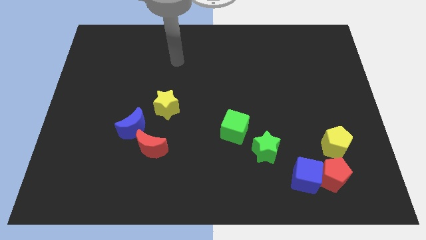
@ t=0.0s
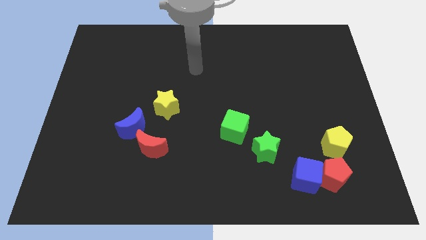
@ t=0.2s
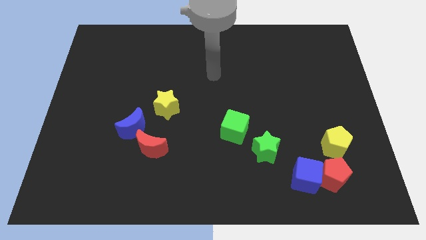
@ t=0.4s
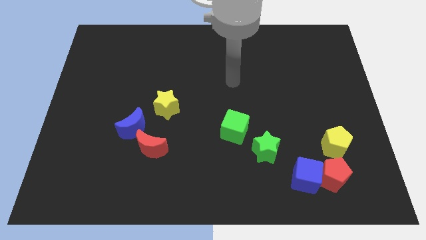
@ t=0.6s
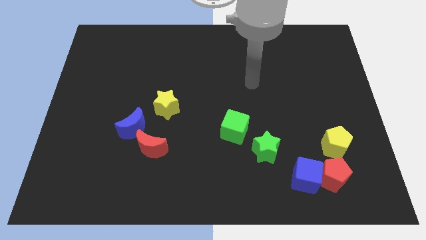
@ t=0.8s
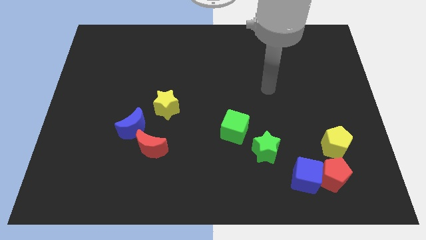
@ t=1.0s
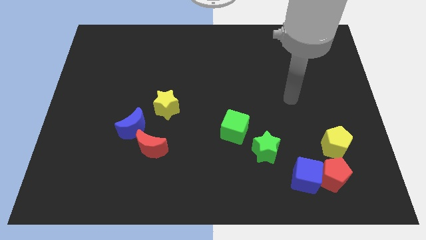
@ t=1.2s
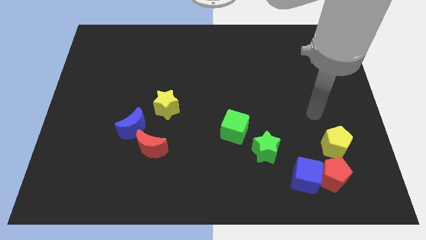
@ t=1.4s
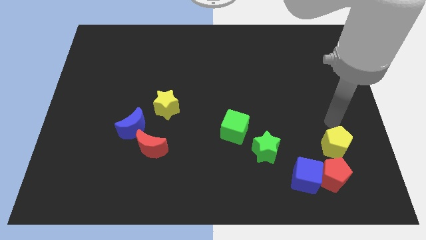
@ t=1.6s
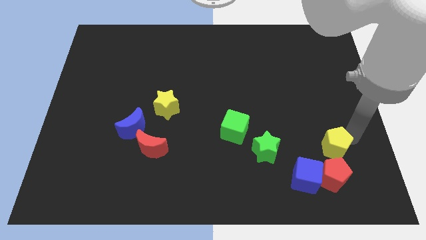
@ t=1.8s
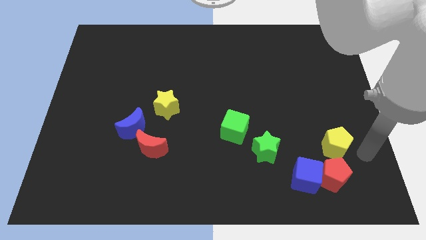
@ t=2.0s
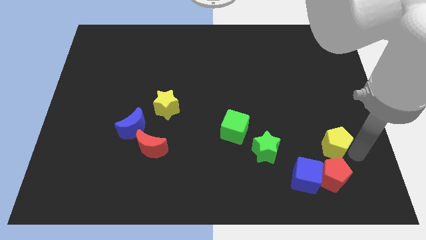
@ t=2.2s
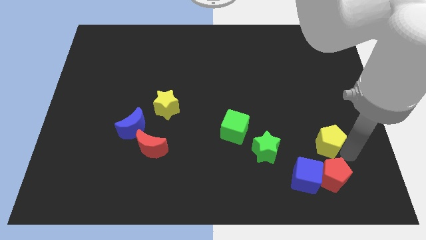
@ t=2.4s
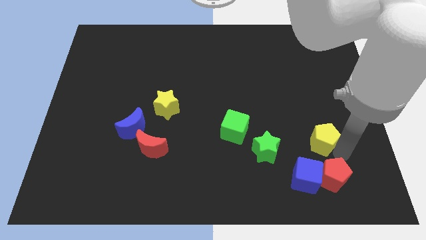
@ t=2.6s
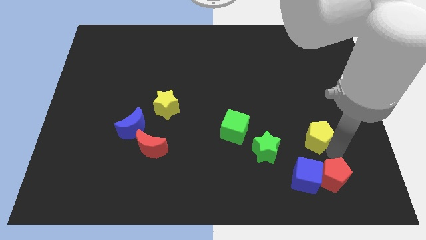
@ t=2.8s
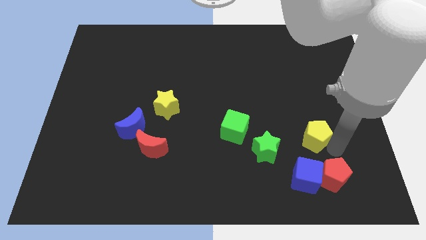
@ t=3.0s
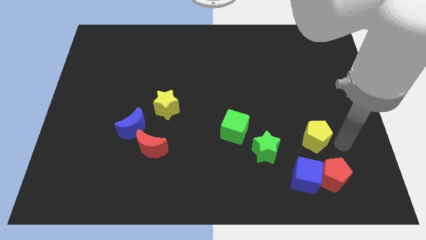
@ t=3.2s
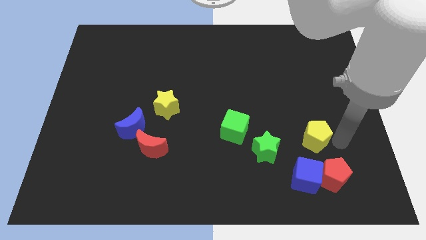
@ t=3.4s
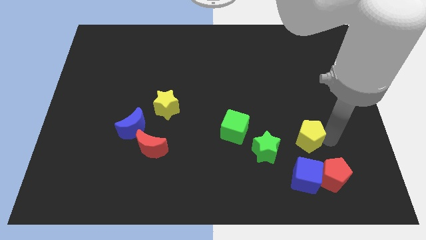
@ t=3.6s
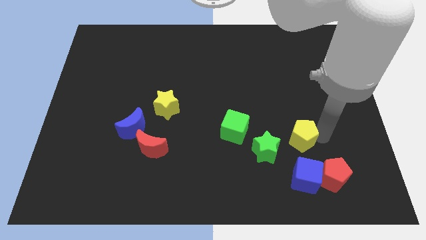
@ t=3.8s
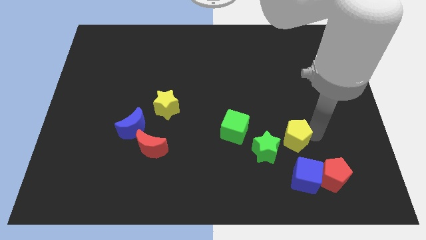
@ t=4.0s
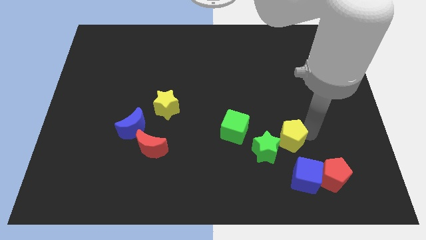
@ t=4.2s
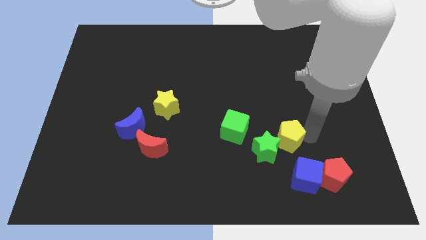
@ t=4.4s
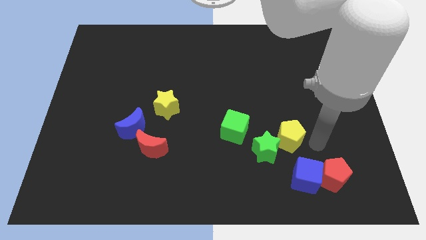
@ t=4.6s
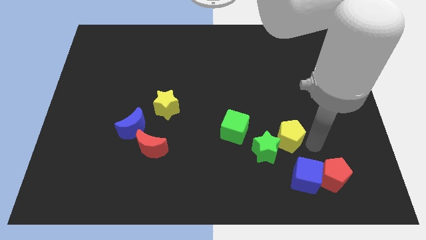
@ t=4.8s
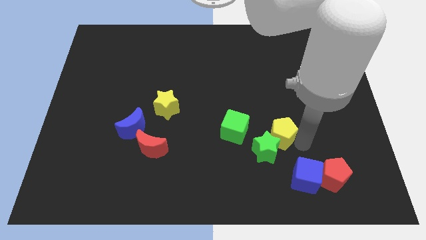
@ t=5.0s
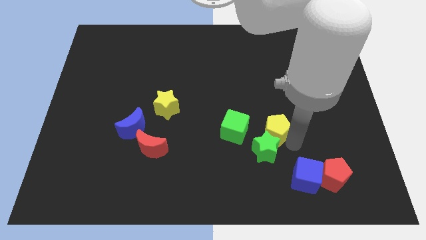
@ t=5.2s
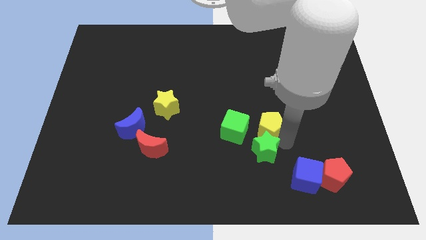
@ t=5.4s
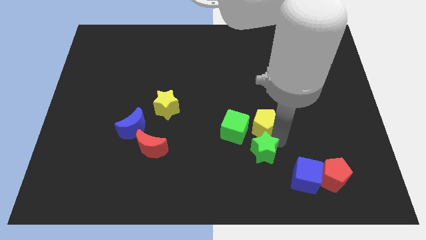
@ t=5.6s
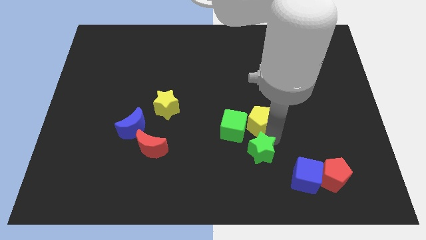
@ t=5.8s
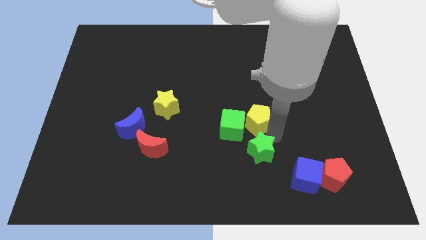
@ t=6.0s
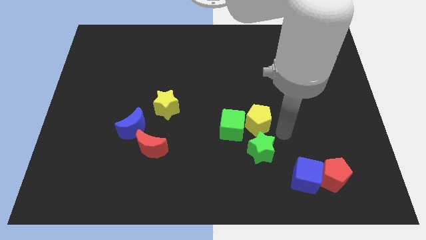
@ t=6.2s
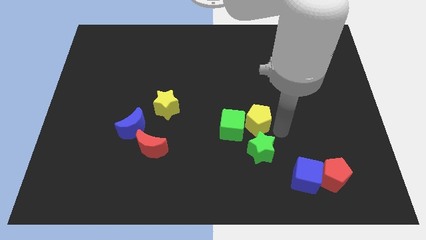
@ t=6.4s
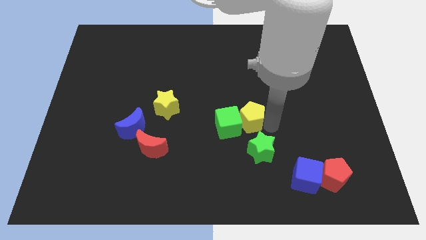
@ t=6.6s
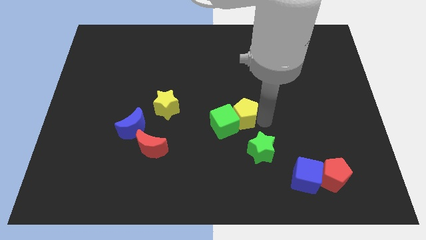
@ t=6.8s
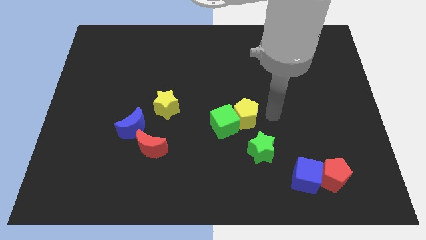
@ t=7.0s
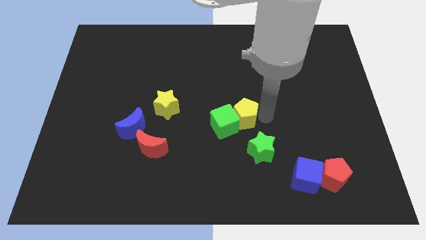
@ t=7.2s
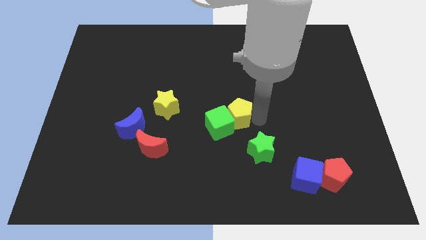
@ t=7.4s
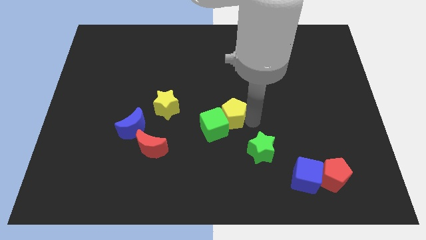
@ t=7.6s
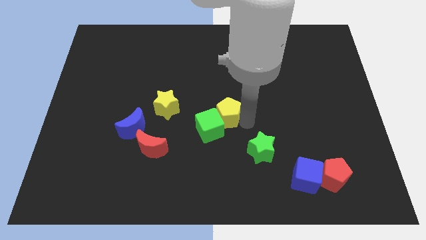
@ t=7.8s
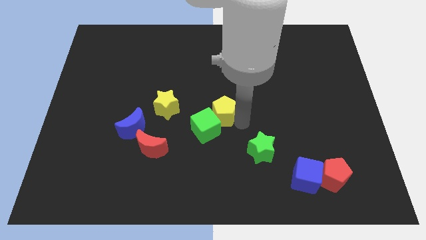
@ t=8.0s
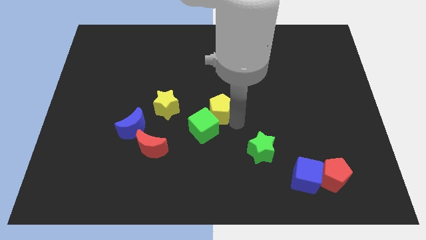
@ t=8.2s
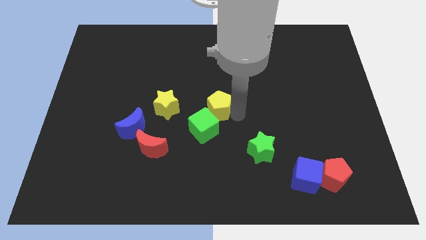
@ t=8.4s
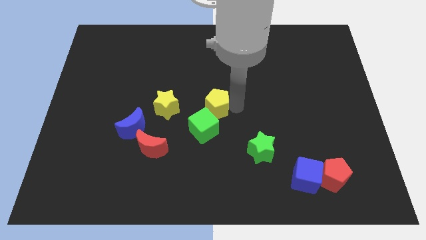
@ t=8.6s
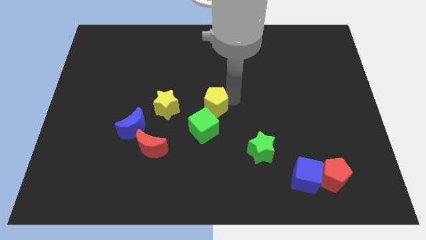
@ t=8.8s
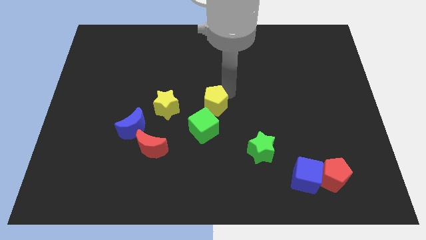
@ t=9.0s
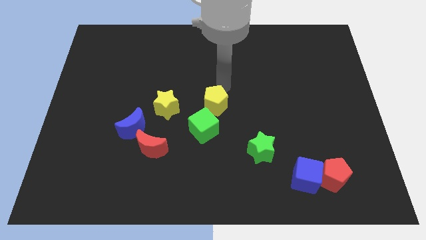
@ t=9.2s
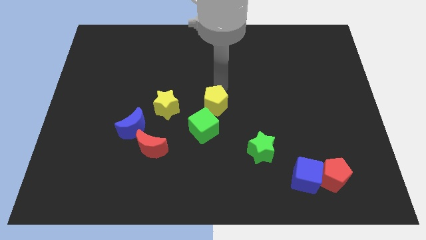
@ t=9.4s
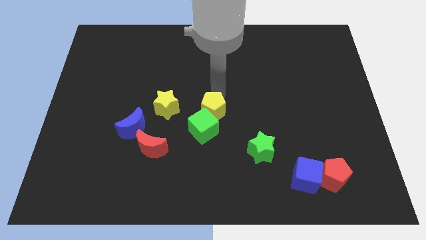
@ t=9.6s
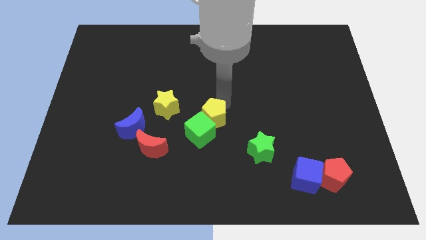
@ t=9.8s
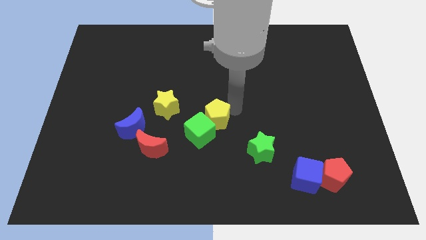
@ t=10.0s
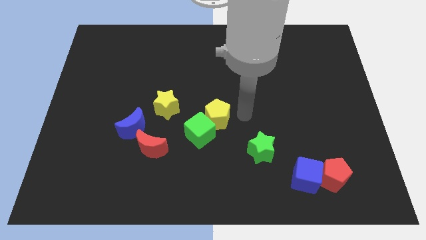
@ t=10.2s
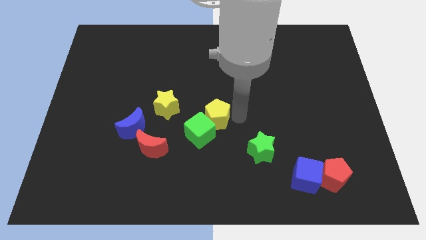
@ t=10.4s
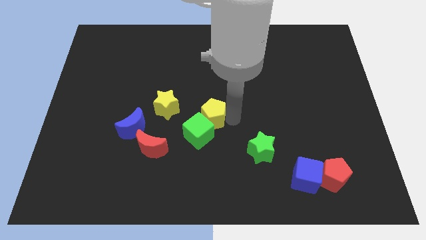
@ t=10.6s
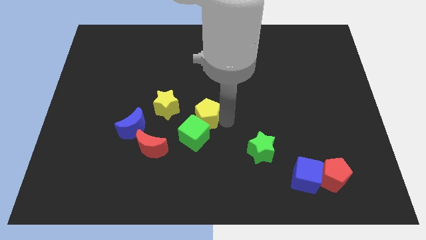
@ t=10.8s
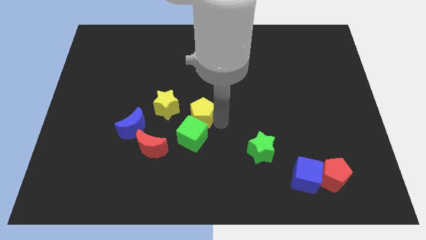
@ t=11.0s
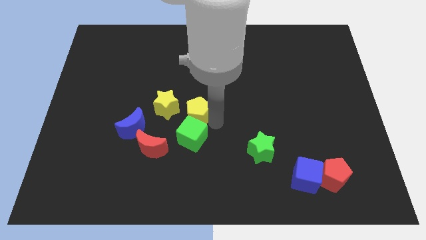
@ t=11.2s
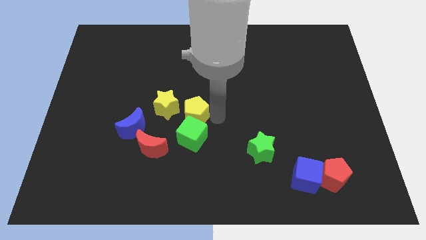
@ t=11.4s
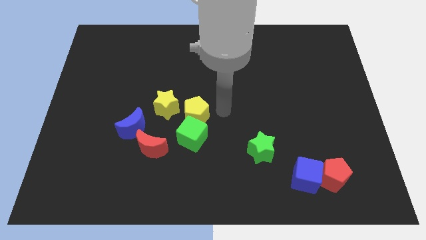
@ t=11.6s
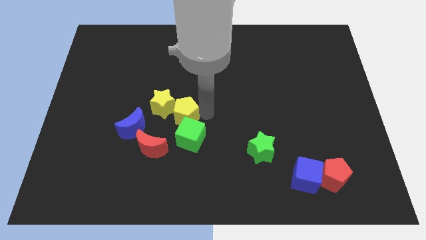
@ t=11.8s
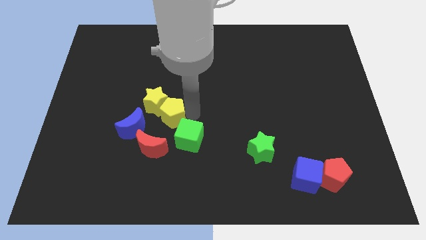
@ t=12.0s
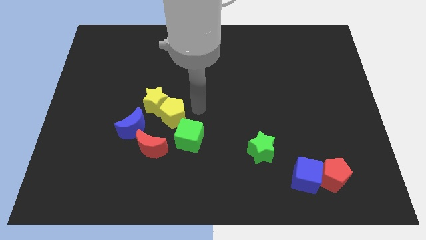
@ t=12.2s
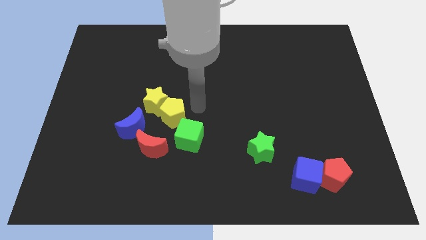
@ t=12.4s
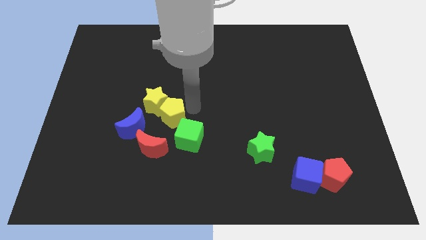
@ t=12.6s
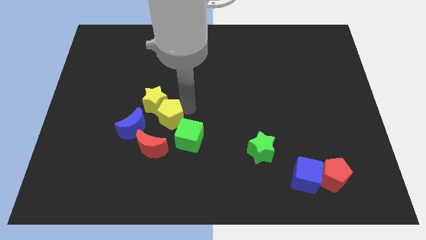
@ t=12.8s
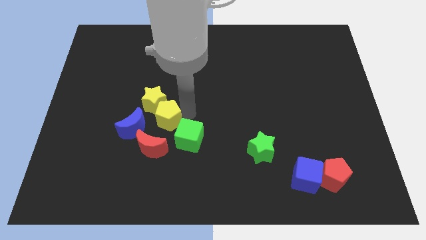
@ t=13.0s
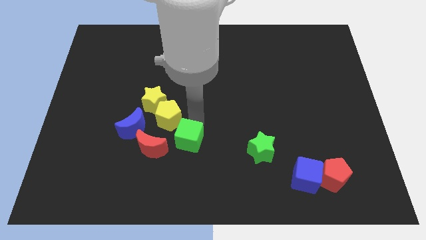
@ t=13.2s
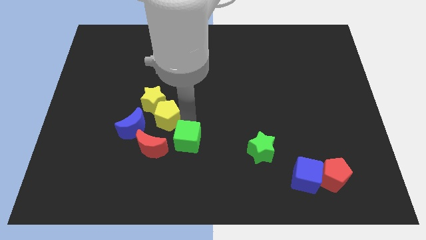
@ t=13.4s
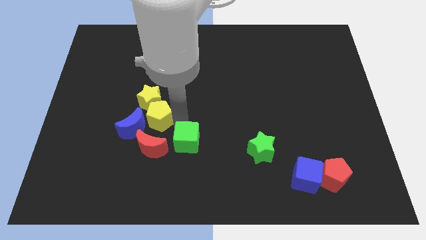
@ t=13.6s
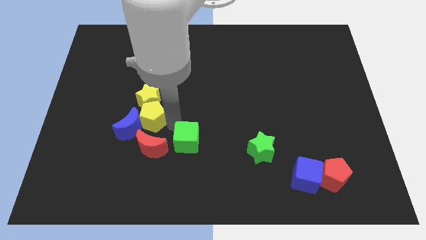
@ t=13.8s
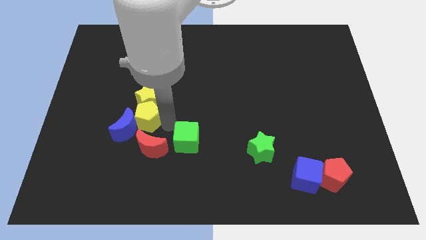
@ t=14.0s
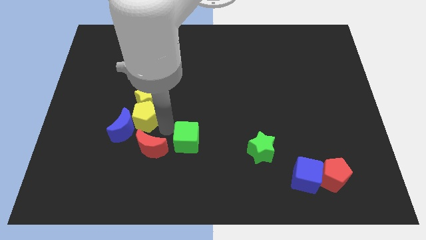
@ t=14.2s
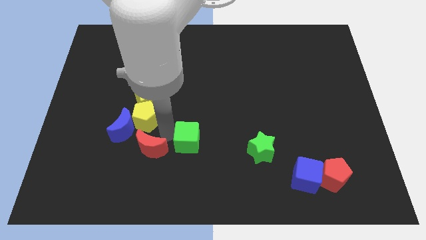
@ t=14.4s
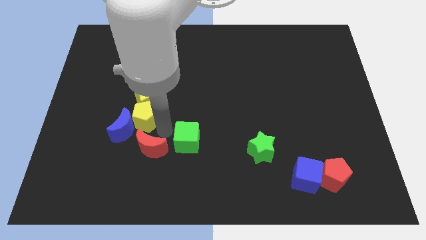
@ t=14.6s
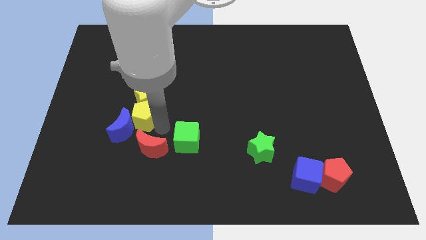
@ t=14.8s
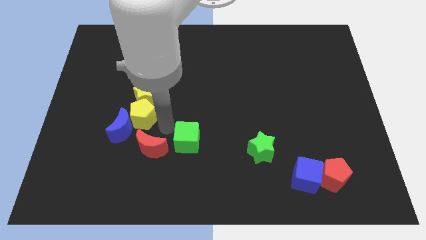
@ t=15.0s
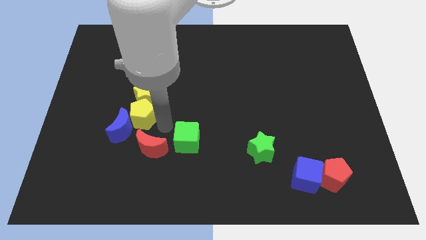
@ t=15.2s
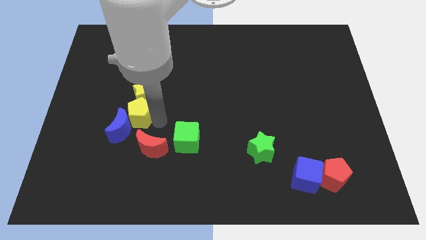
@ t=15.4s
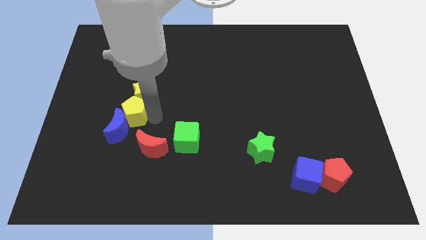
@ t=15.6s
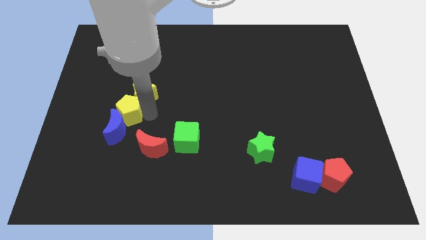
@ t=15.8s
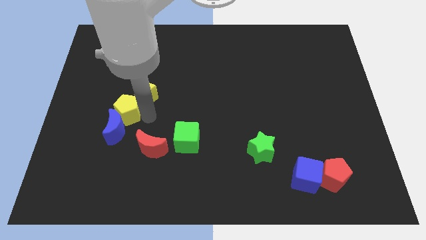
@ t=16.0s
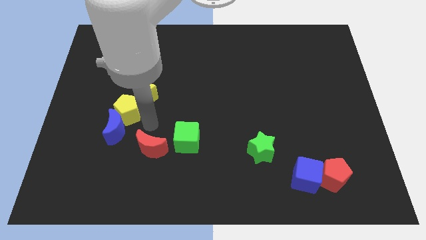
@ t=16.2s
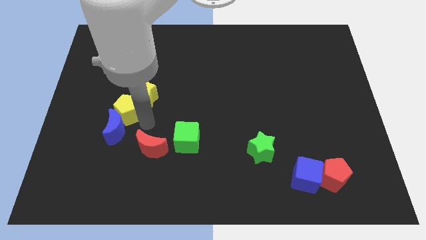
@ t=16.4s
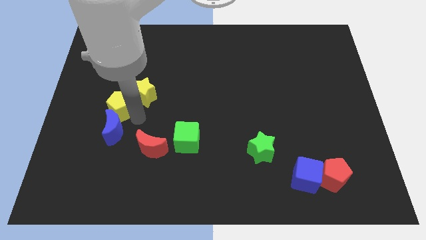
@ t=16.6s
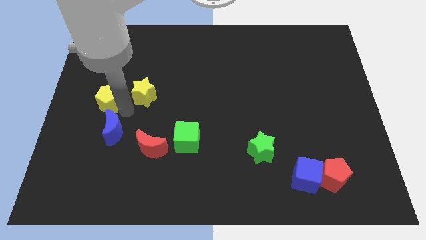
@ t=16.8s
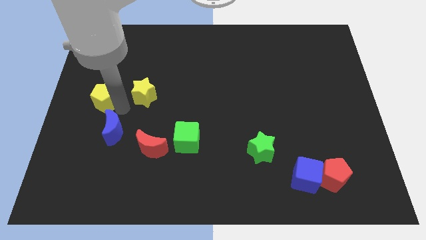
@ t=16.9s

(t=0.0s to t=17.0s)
put the yellow pentagon to the center left
